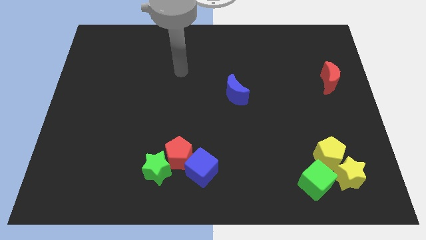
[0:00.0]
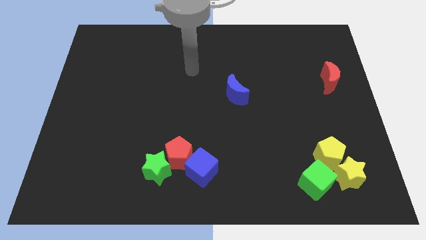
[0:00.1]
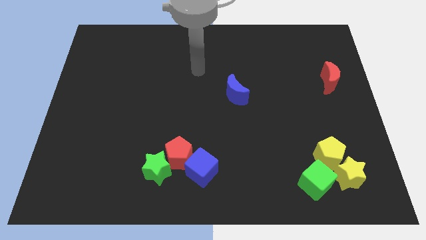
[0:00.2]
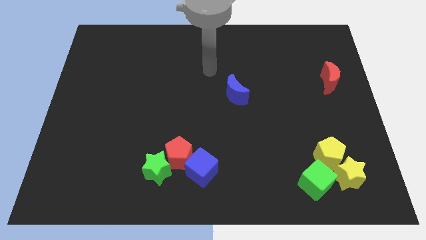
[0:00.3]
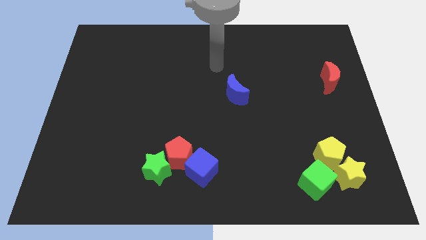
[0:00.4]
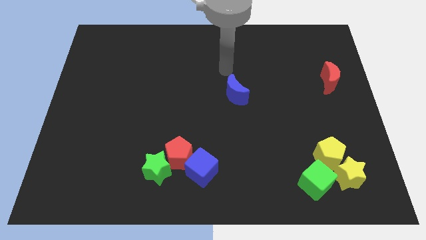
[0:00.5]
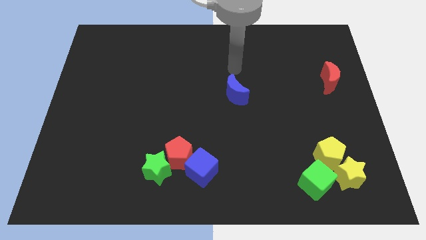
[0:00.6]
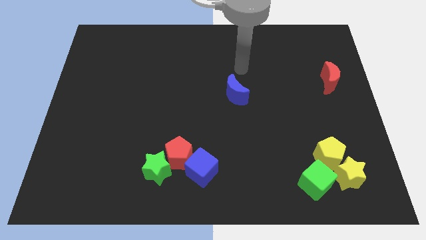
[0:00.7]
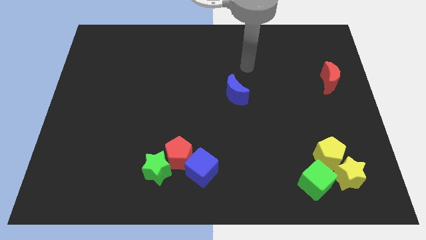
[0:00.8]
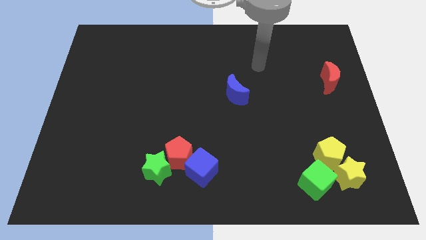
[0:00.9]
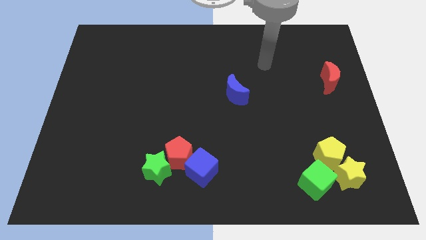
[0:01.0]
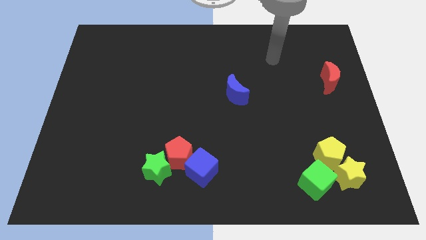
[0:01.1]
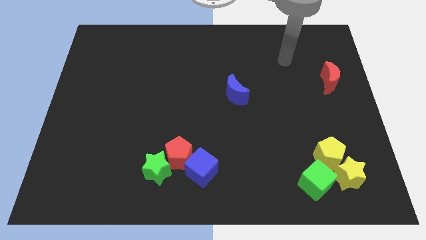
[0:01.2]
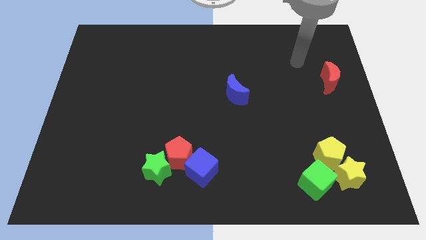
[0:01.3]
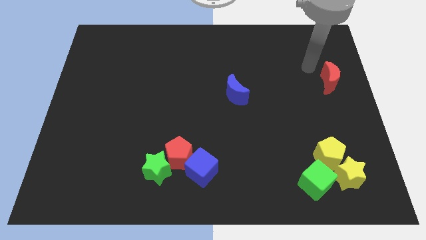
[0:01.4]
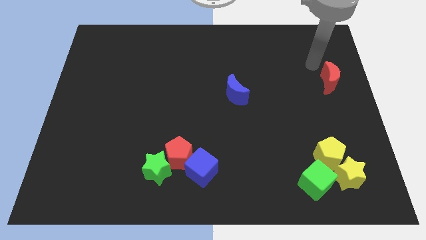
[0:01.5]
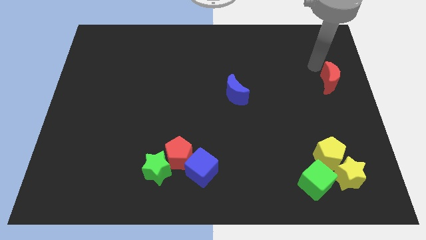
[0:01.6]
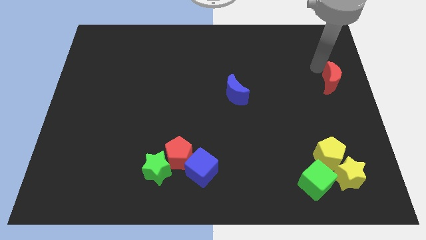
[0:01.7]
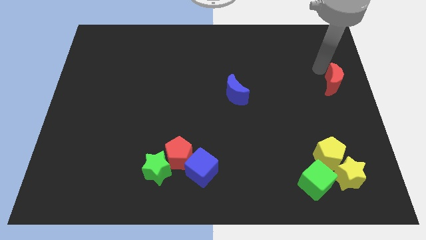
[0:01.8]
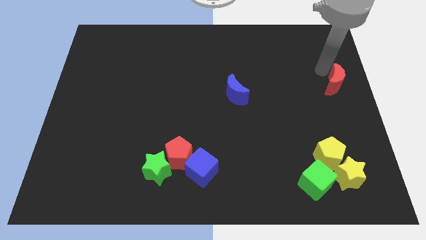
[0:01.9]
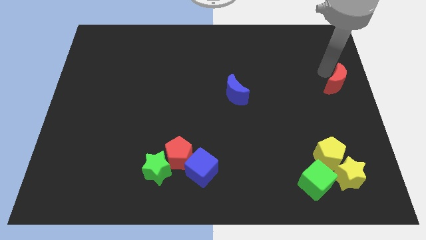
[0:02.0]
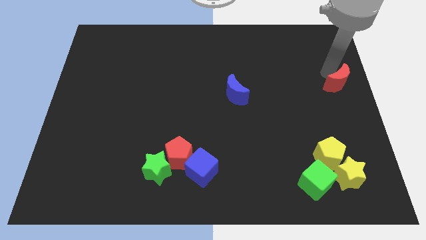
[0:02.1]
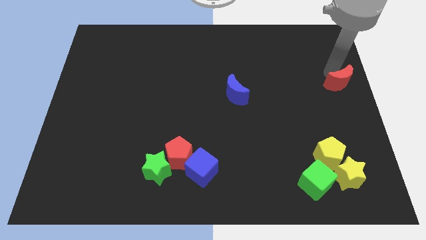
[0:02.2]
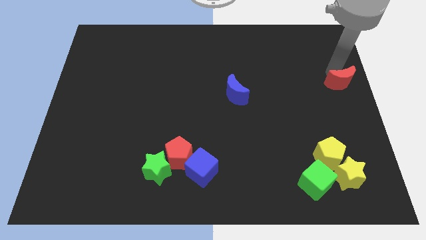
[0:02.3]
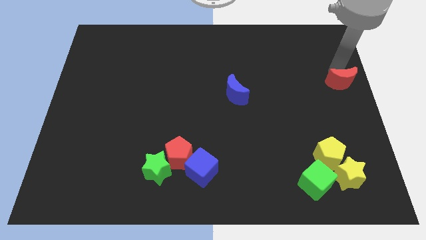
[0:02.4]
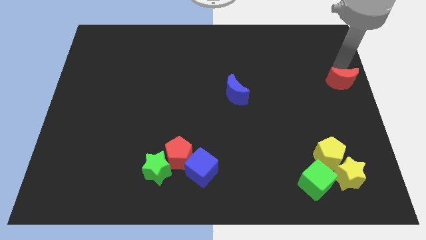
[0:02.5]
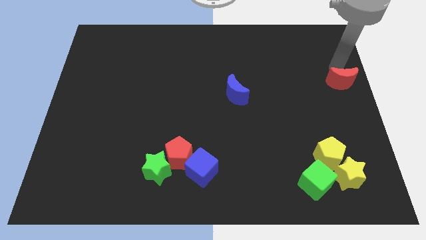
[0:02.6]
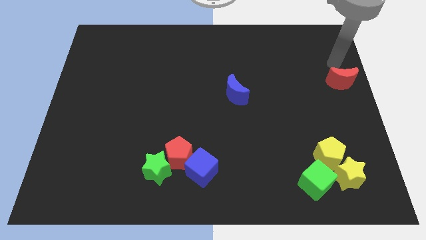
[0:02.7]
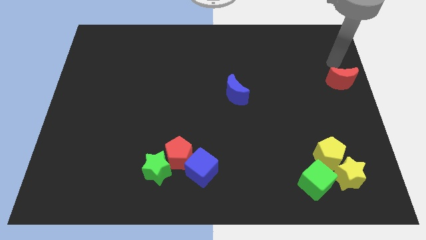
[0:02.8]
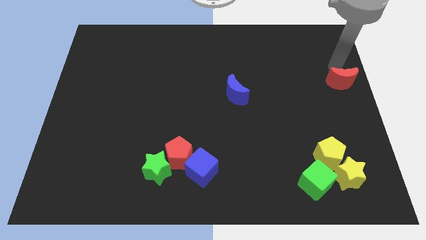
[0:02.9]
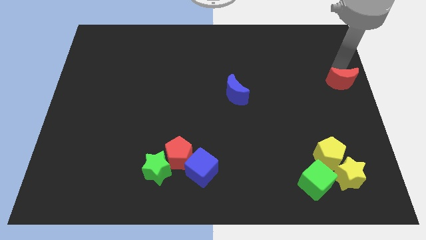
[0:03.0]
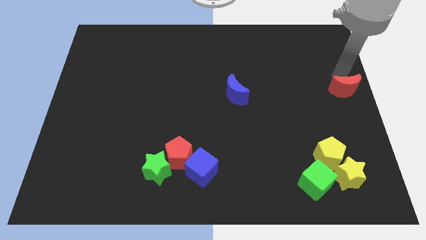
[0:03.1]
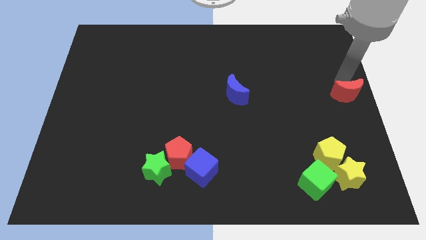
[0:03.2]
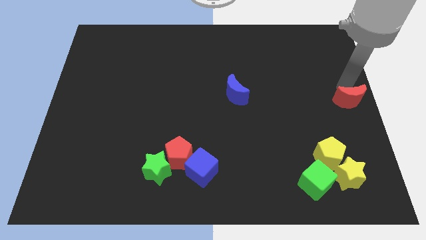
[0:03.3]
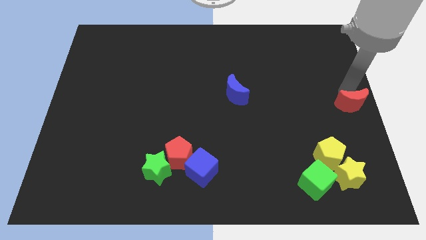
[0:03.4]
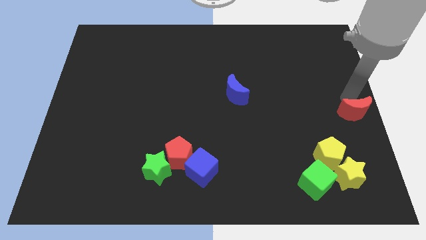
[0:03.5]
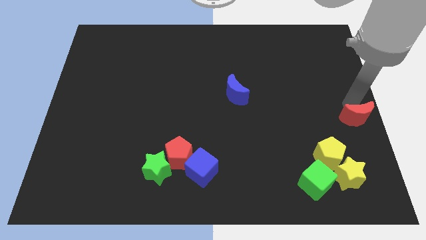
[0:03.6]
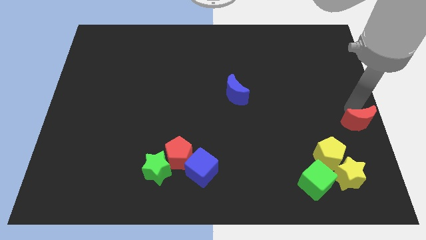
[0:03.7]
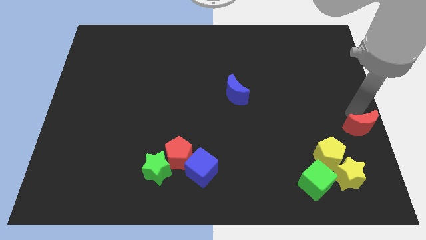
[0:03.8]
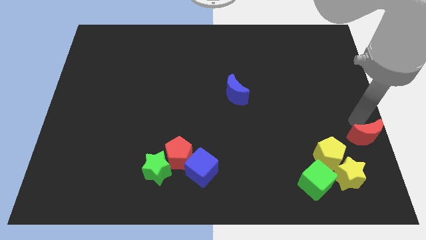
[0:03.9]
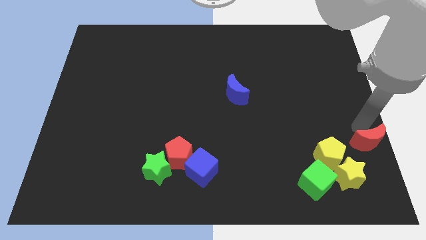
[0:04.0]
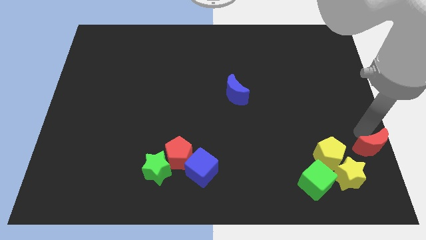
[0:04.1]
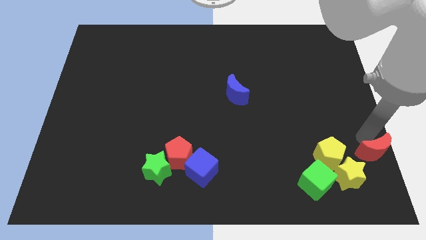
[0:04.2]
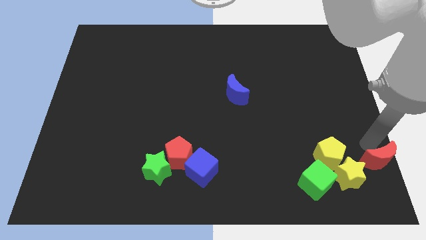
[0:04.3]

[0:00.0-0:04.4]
push the red moon to the bottom right

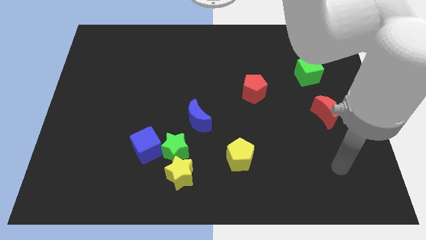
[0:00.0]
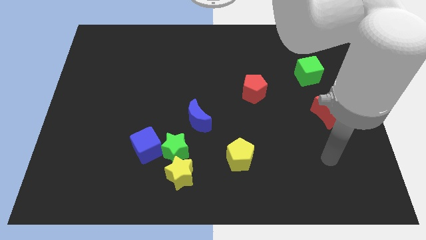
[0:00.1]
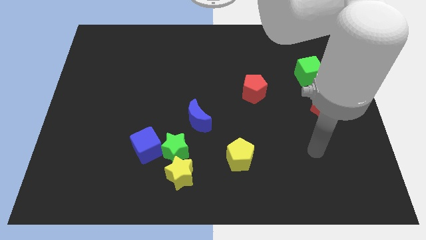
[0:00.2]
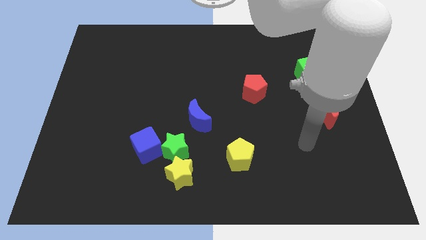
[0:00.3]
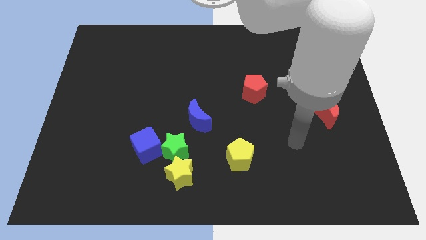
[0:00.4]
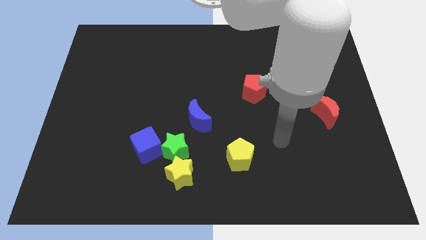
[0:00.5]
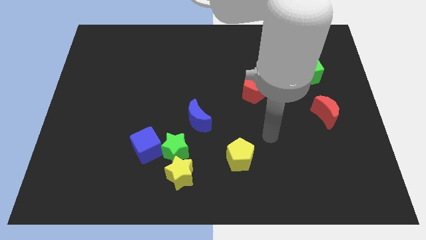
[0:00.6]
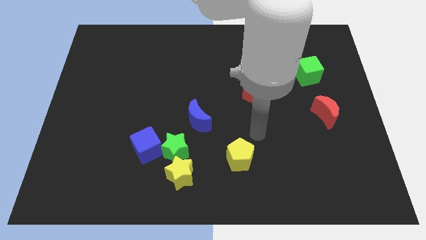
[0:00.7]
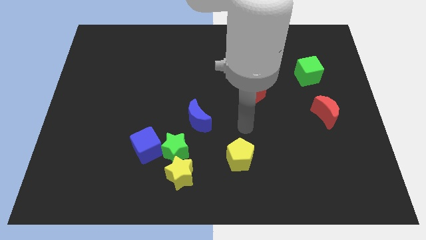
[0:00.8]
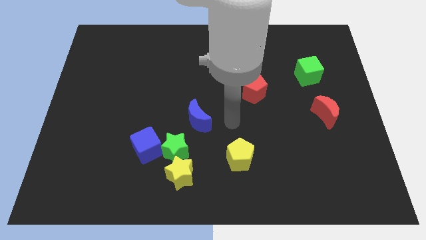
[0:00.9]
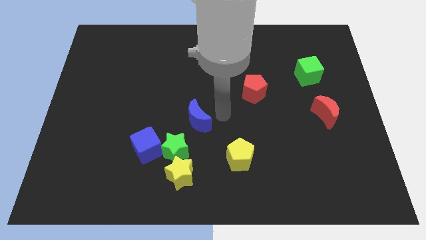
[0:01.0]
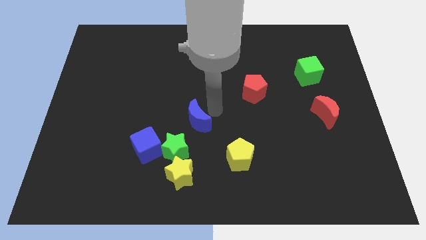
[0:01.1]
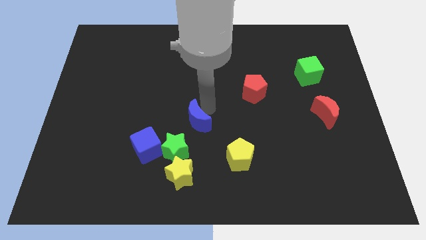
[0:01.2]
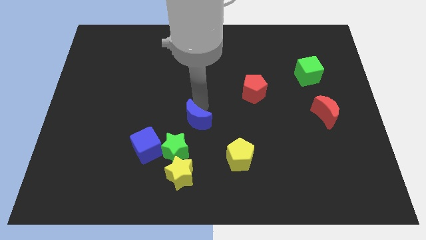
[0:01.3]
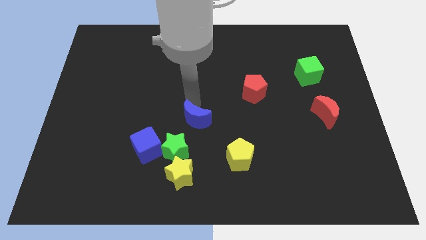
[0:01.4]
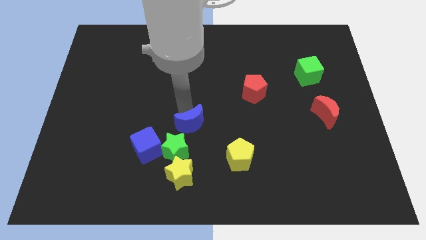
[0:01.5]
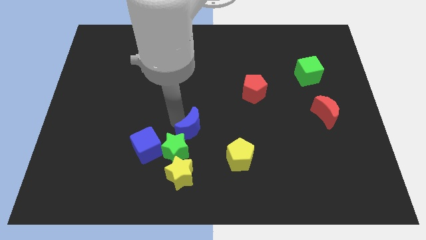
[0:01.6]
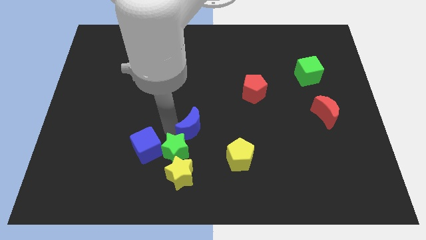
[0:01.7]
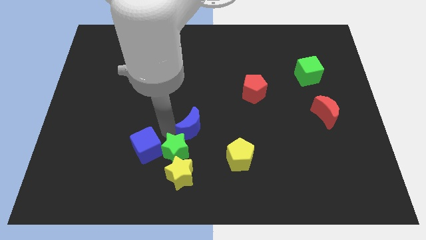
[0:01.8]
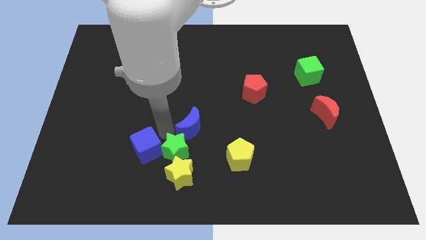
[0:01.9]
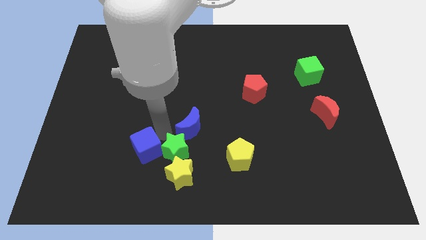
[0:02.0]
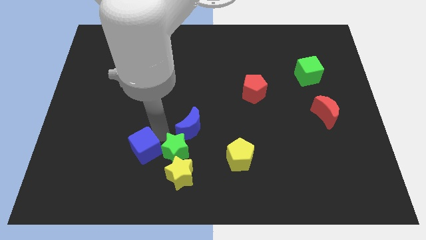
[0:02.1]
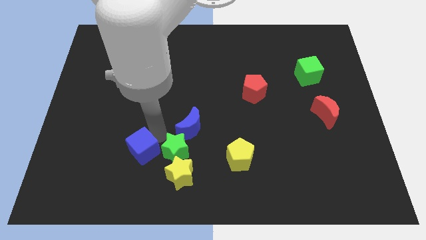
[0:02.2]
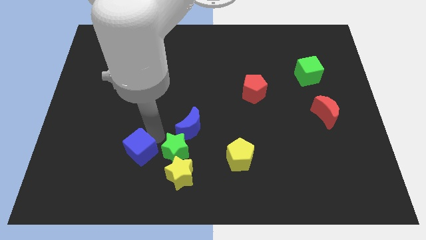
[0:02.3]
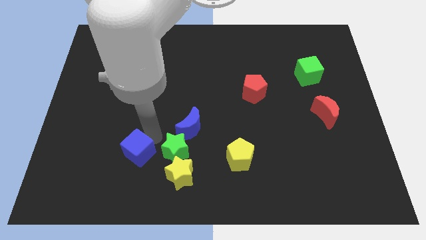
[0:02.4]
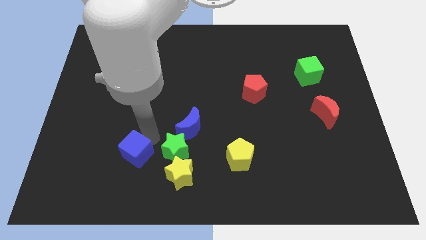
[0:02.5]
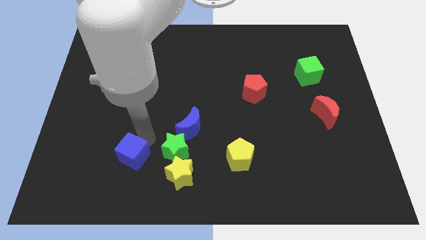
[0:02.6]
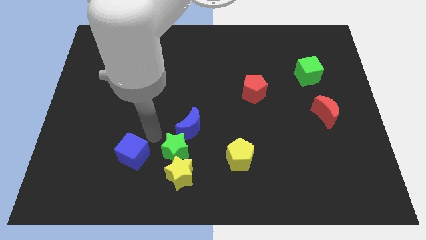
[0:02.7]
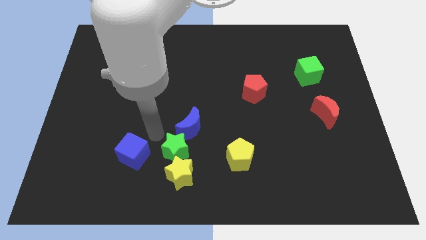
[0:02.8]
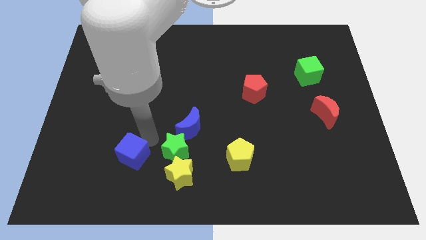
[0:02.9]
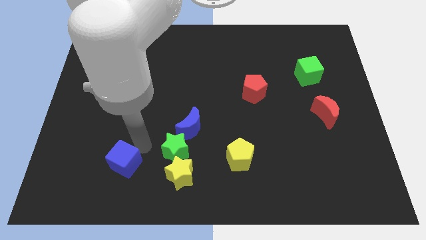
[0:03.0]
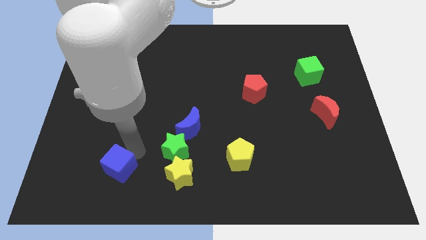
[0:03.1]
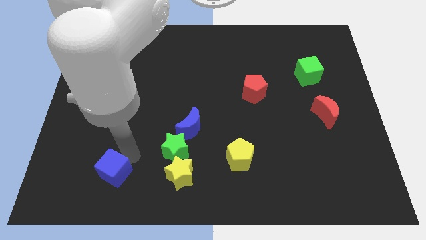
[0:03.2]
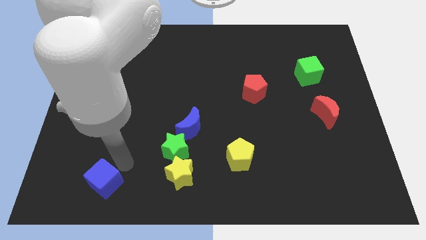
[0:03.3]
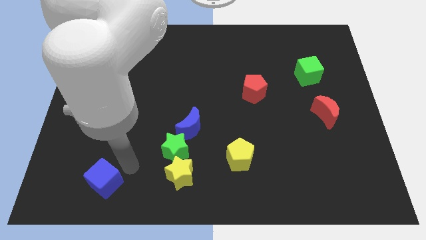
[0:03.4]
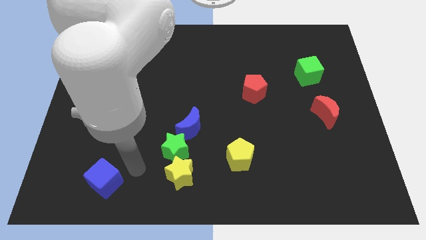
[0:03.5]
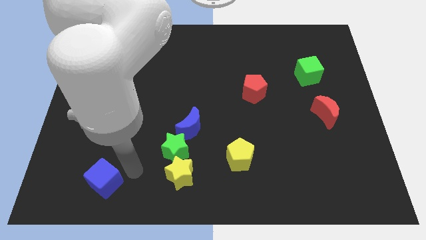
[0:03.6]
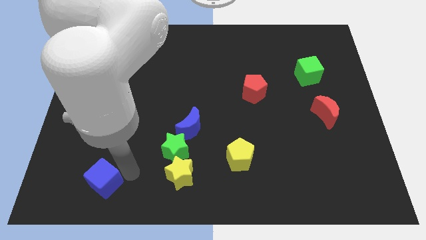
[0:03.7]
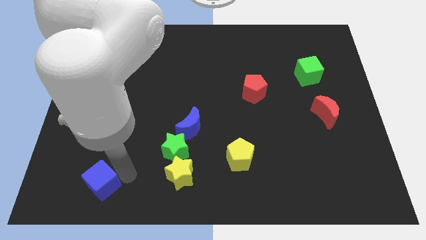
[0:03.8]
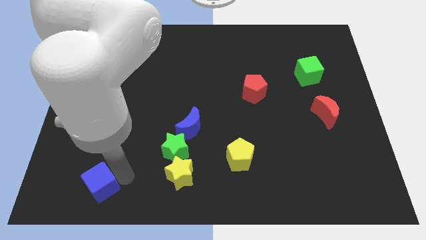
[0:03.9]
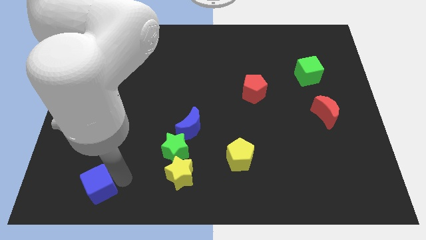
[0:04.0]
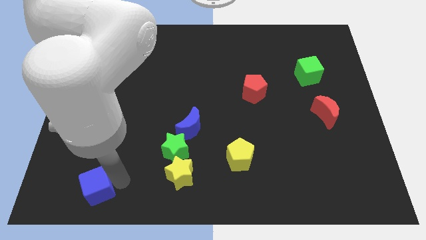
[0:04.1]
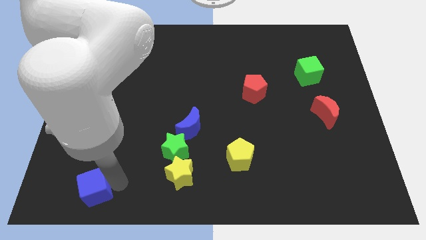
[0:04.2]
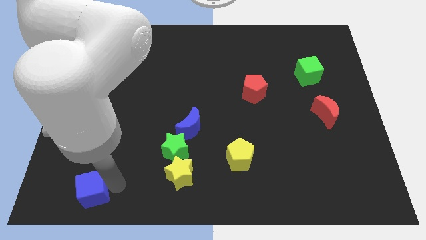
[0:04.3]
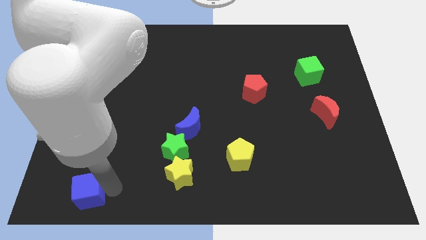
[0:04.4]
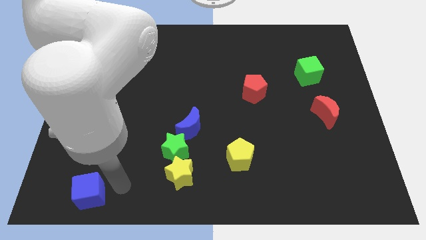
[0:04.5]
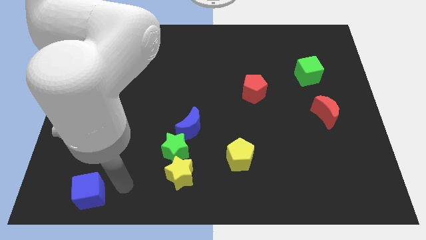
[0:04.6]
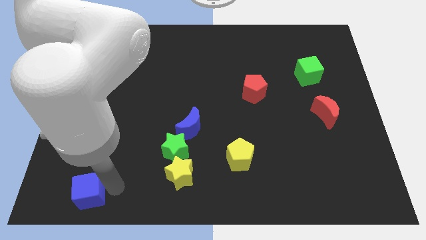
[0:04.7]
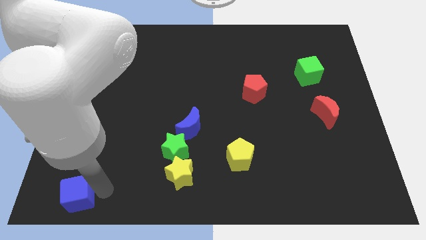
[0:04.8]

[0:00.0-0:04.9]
push the blue cube to the bottom left corner
